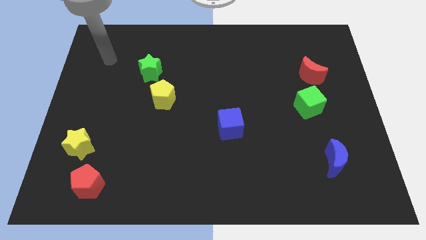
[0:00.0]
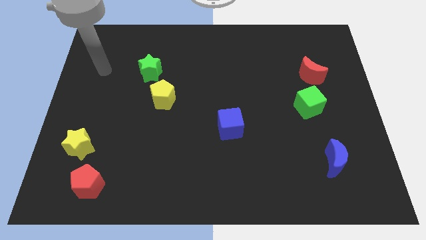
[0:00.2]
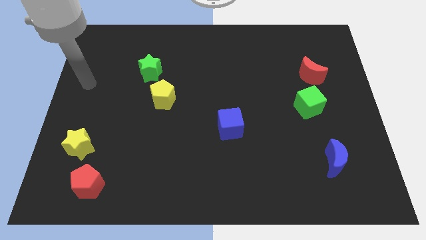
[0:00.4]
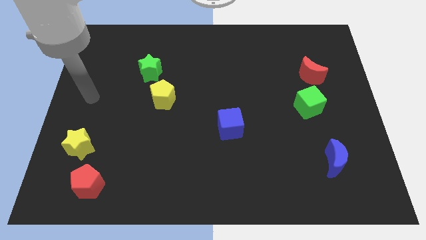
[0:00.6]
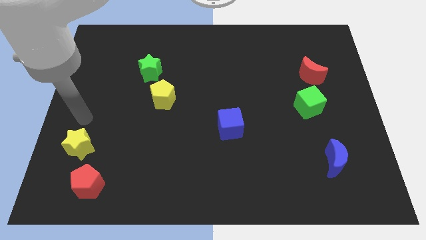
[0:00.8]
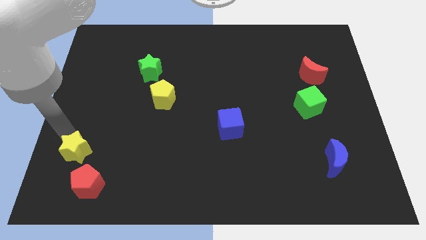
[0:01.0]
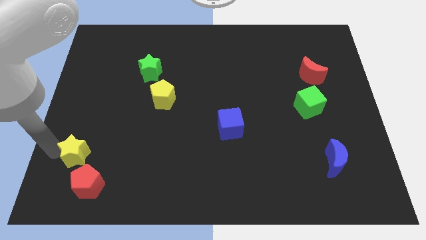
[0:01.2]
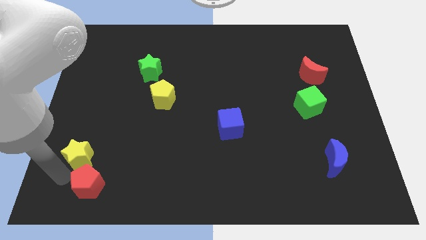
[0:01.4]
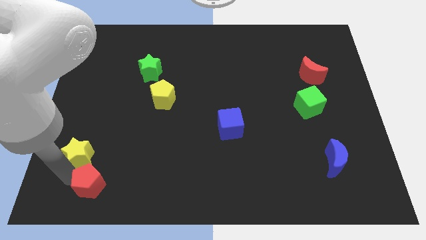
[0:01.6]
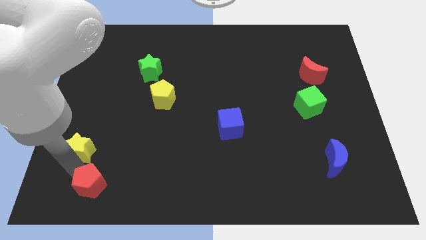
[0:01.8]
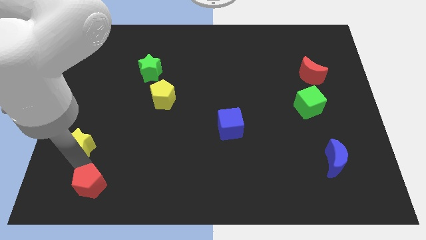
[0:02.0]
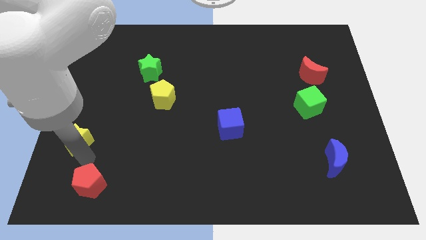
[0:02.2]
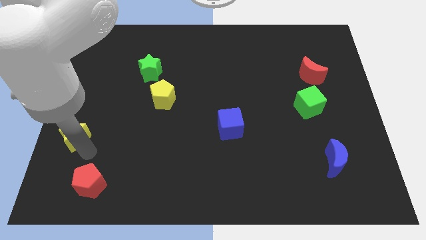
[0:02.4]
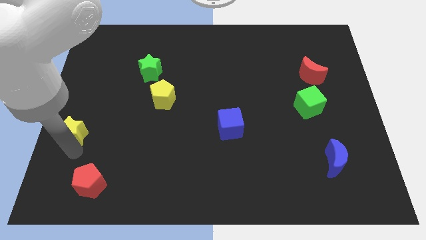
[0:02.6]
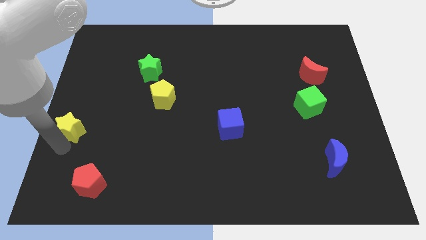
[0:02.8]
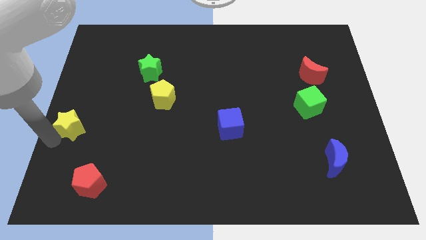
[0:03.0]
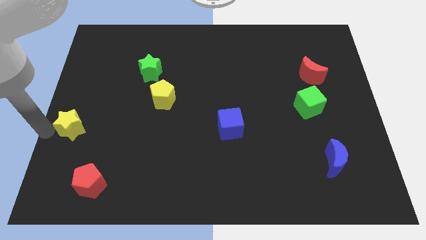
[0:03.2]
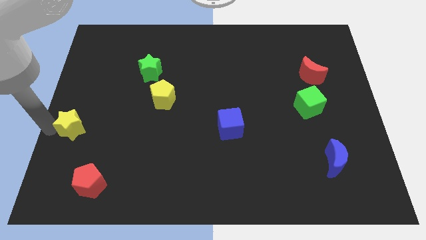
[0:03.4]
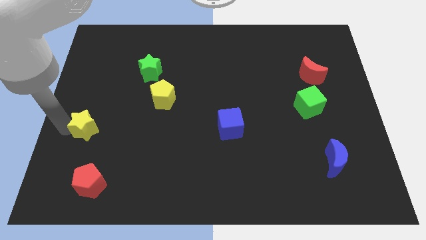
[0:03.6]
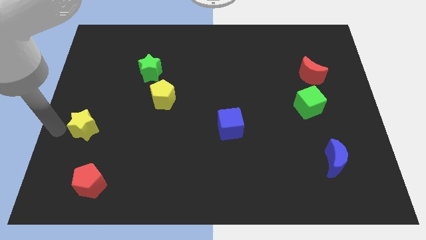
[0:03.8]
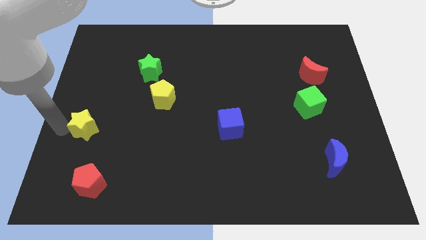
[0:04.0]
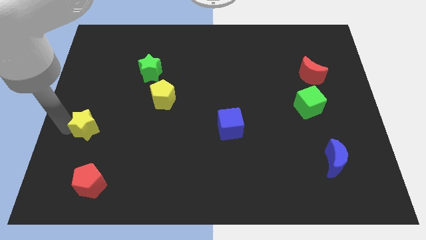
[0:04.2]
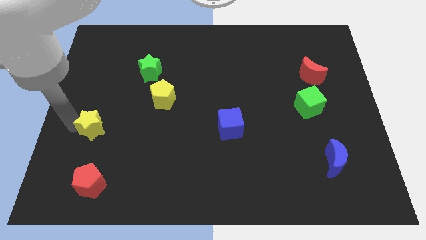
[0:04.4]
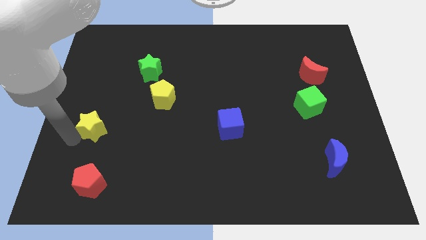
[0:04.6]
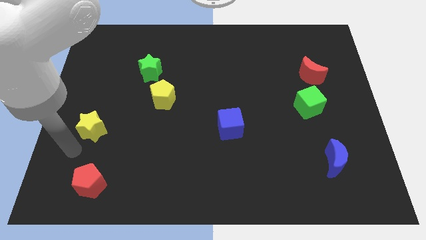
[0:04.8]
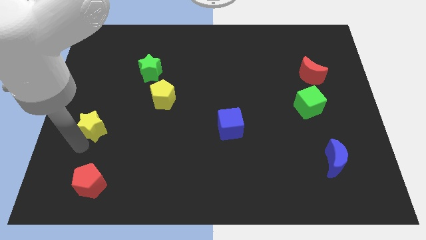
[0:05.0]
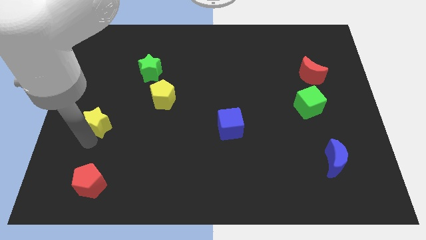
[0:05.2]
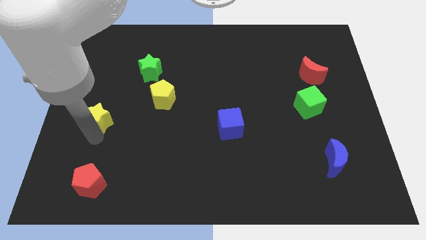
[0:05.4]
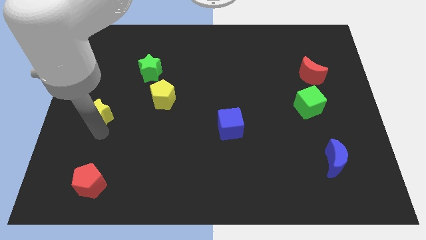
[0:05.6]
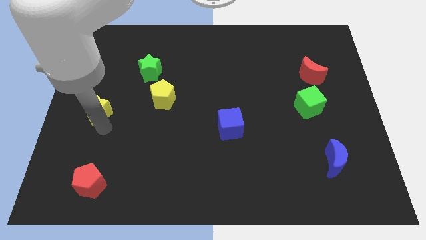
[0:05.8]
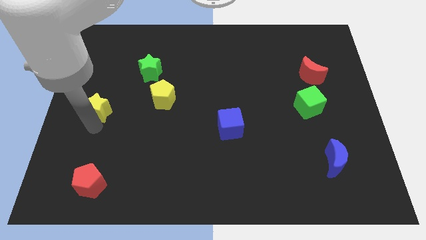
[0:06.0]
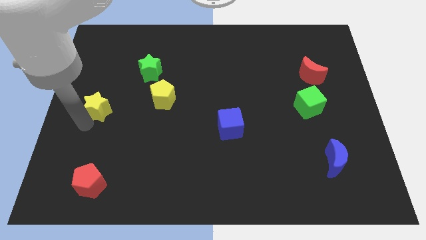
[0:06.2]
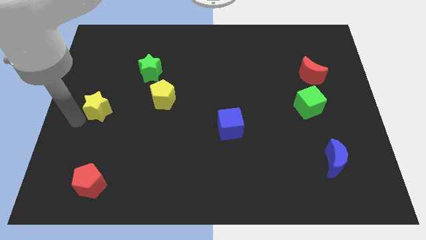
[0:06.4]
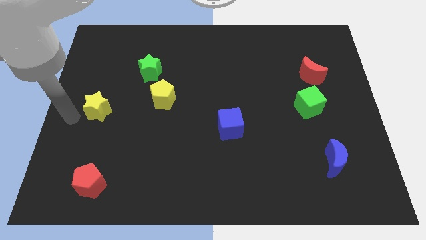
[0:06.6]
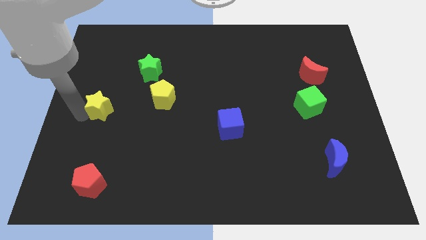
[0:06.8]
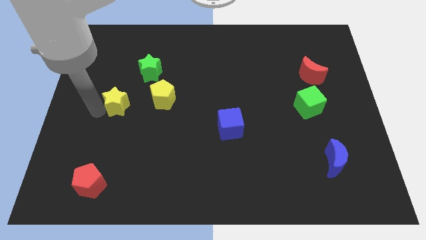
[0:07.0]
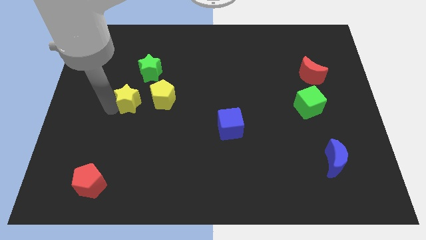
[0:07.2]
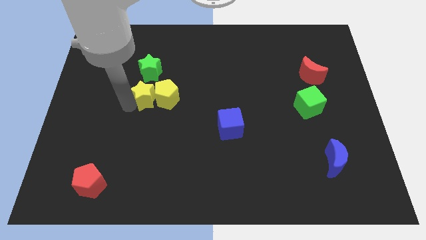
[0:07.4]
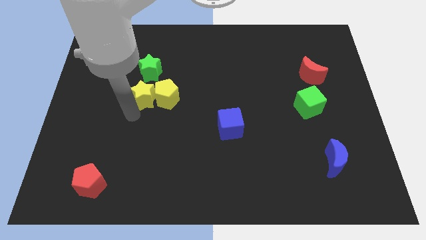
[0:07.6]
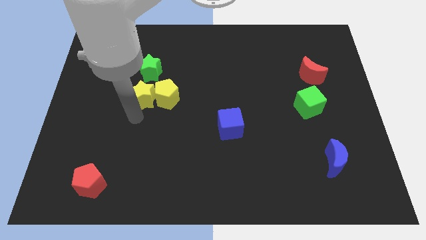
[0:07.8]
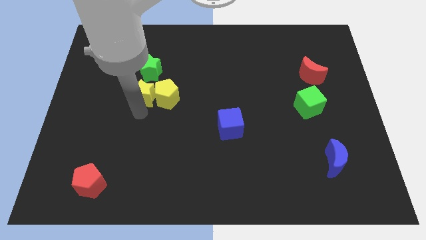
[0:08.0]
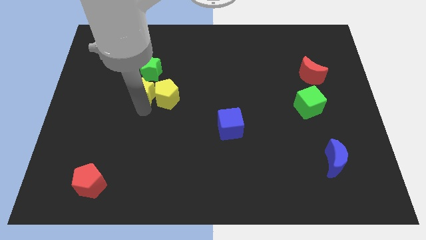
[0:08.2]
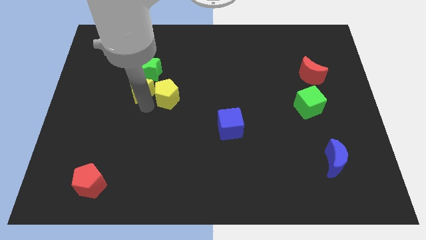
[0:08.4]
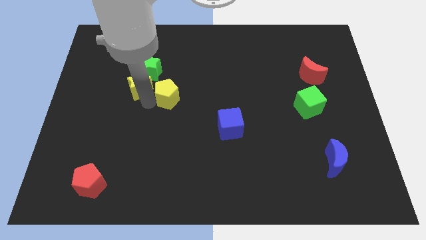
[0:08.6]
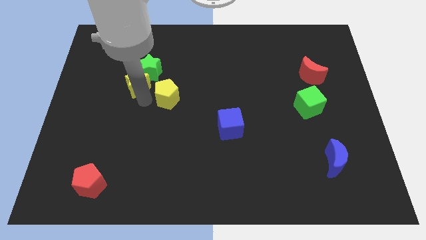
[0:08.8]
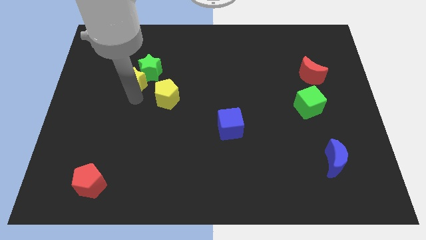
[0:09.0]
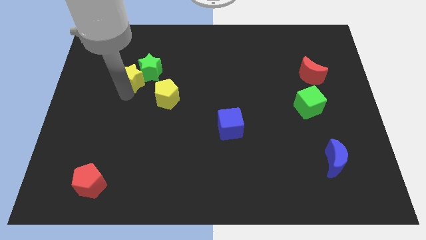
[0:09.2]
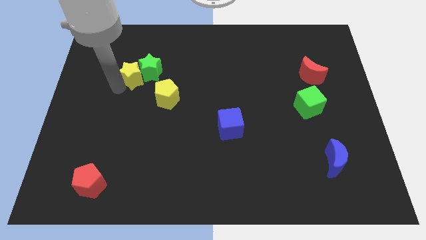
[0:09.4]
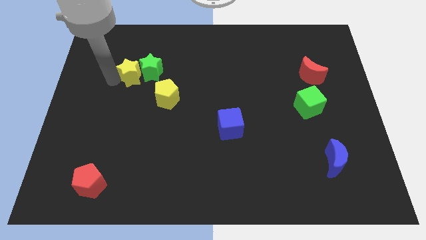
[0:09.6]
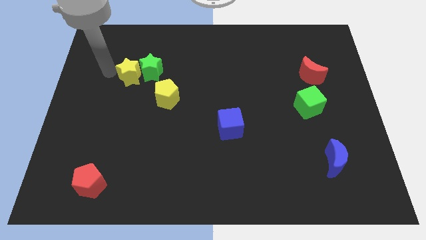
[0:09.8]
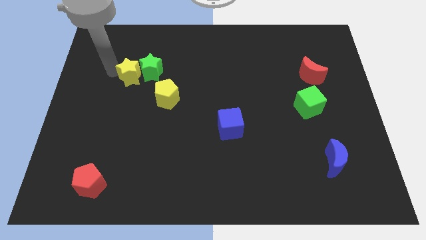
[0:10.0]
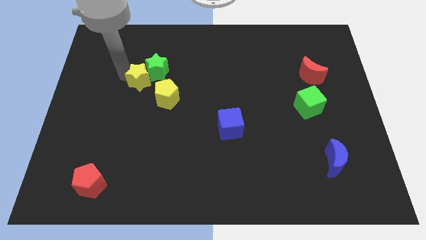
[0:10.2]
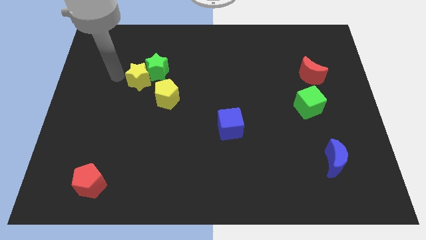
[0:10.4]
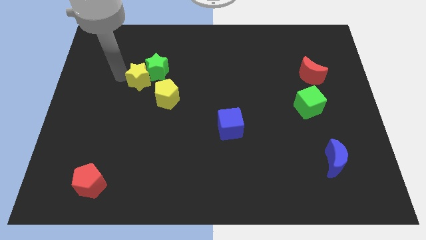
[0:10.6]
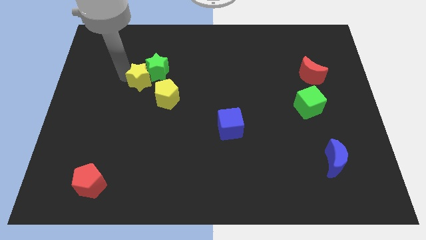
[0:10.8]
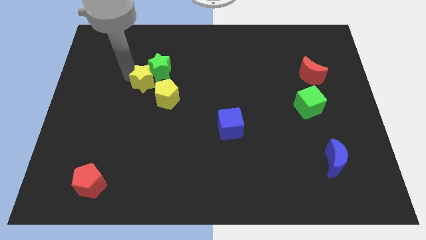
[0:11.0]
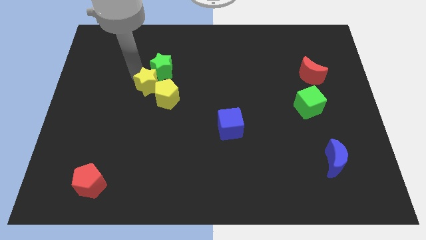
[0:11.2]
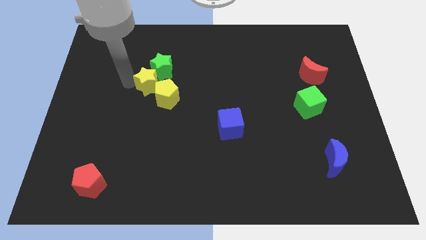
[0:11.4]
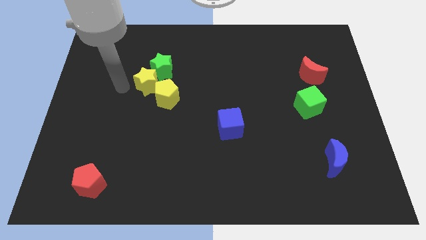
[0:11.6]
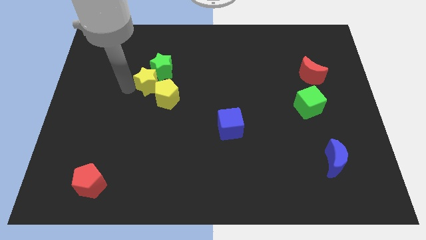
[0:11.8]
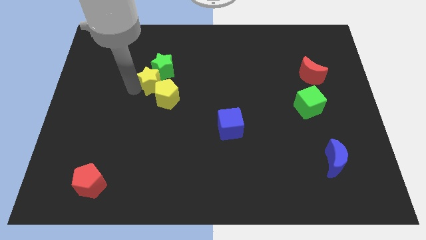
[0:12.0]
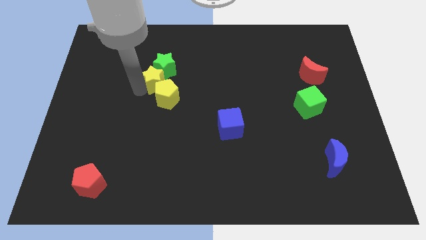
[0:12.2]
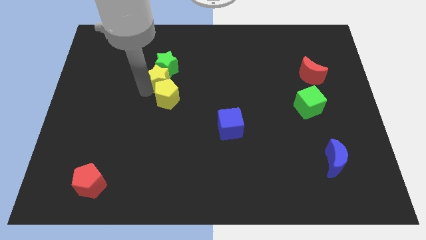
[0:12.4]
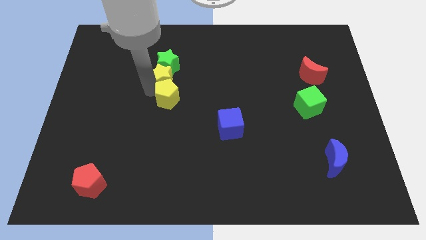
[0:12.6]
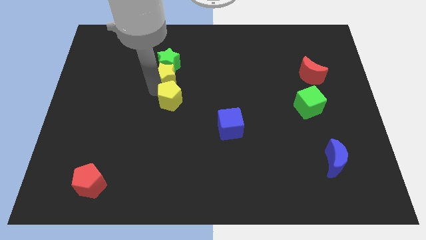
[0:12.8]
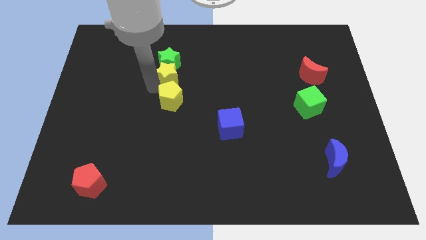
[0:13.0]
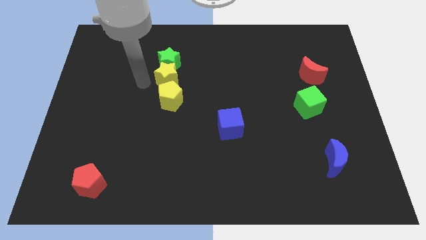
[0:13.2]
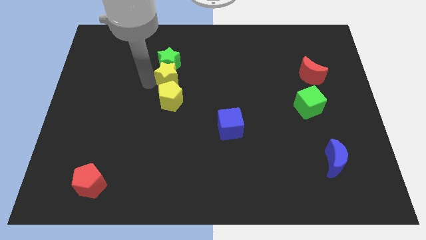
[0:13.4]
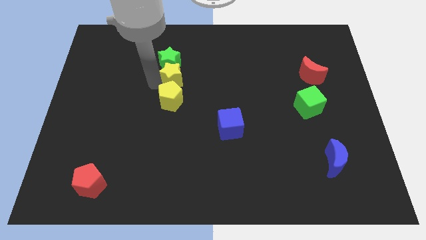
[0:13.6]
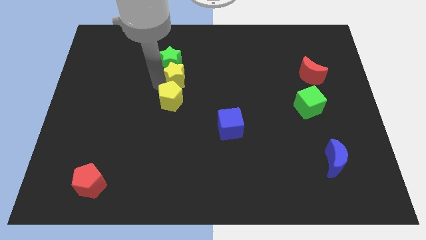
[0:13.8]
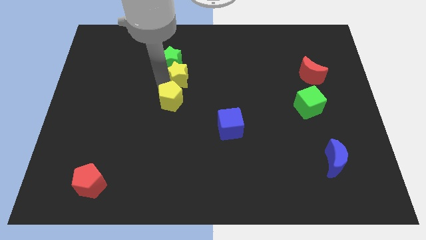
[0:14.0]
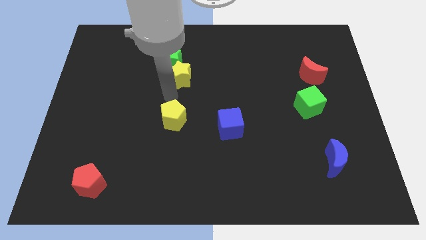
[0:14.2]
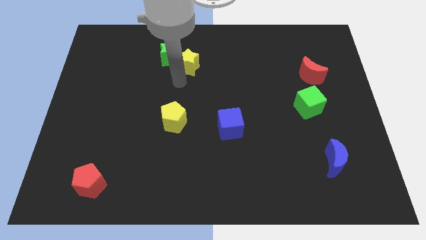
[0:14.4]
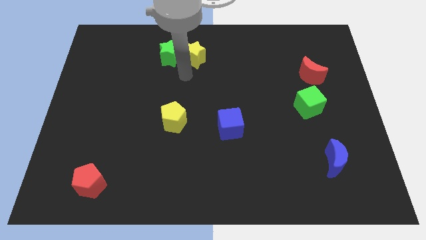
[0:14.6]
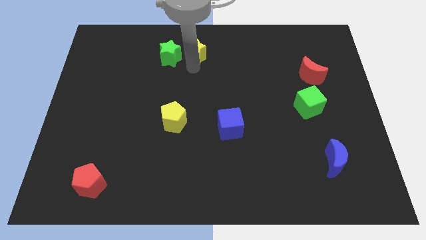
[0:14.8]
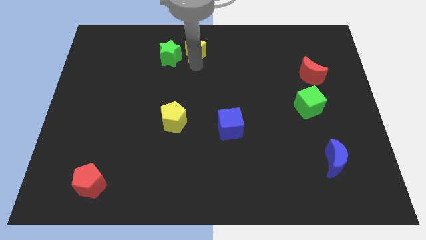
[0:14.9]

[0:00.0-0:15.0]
slide the yellow star to the towards your base
